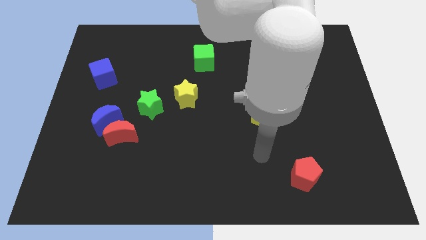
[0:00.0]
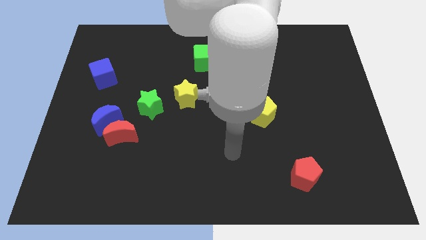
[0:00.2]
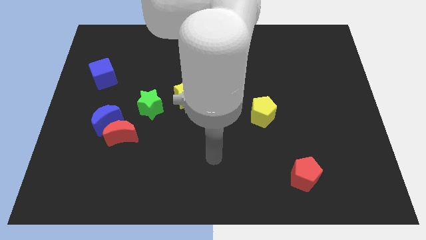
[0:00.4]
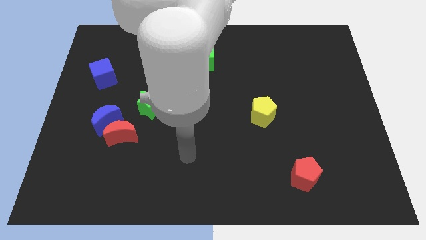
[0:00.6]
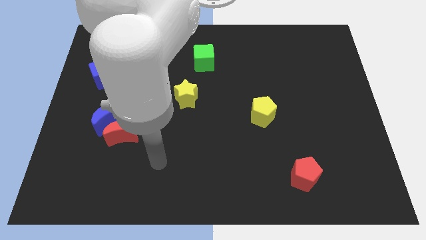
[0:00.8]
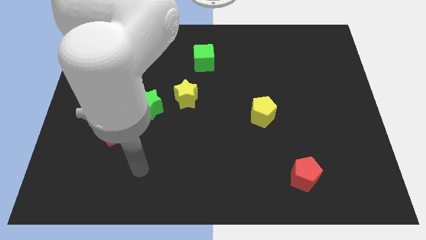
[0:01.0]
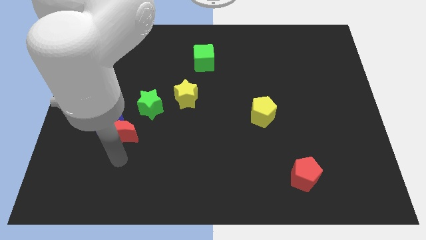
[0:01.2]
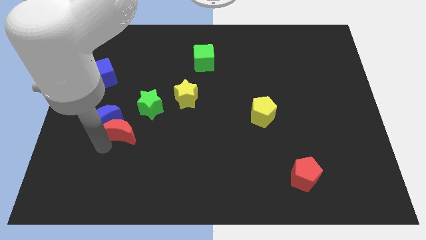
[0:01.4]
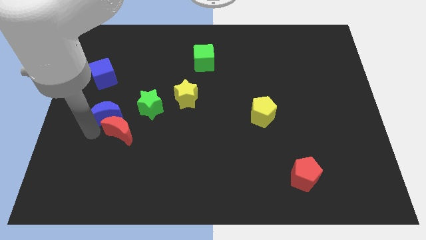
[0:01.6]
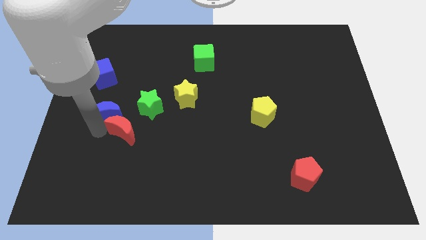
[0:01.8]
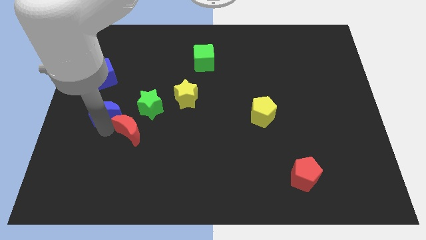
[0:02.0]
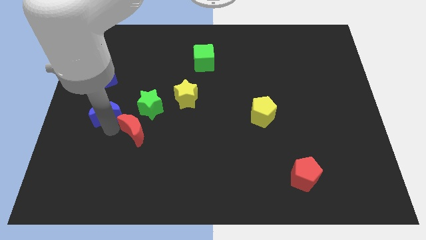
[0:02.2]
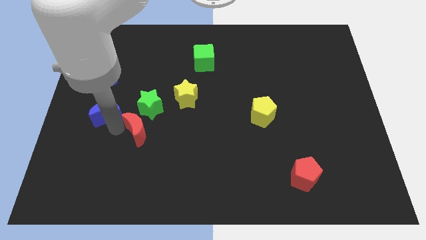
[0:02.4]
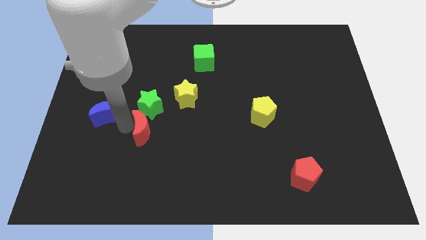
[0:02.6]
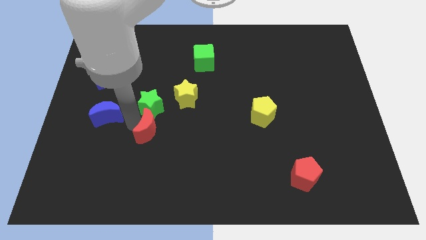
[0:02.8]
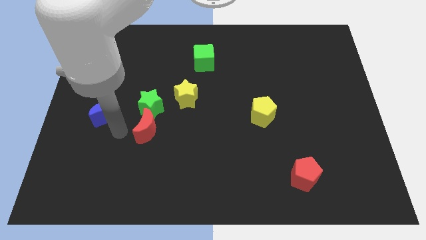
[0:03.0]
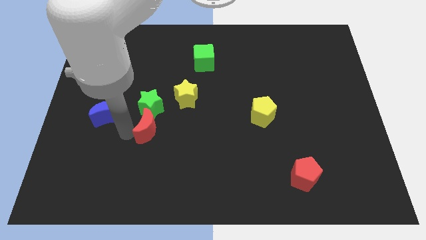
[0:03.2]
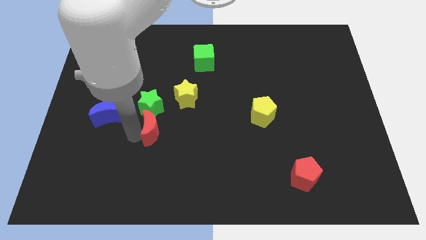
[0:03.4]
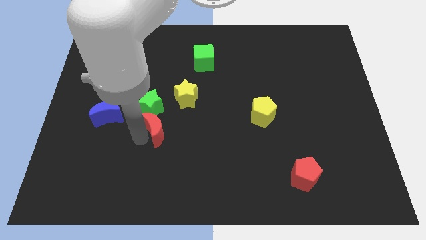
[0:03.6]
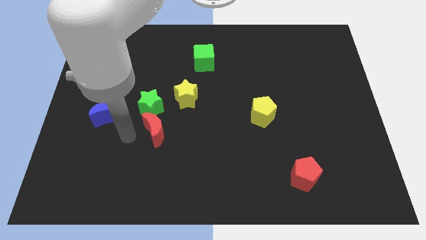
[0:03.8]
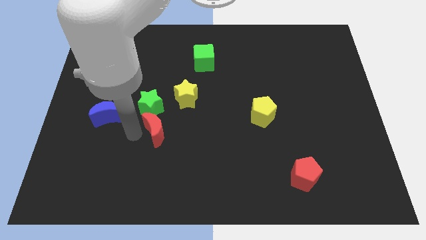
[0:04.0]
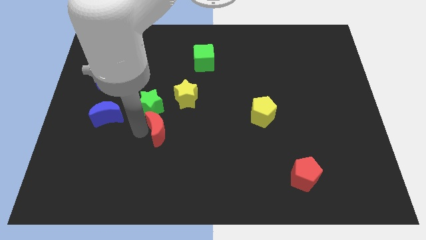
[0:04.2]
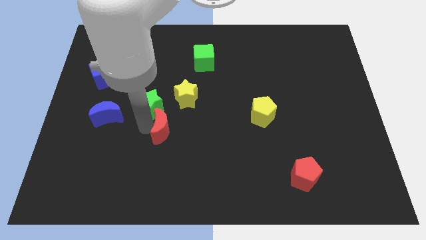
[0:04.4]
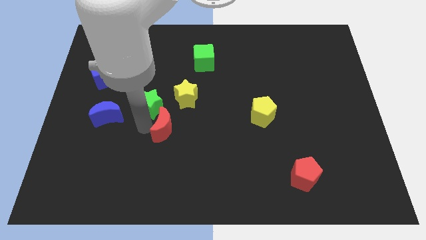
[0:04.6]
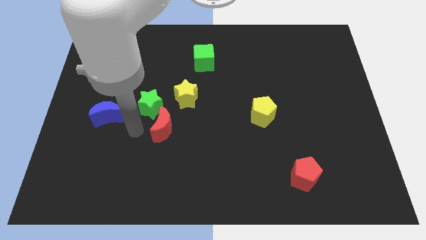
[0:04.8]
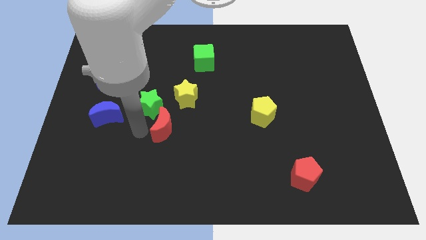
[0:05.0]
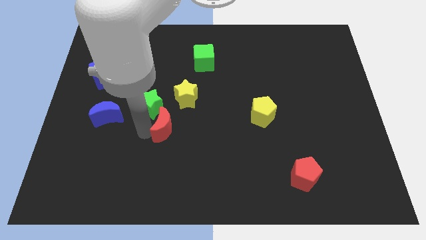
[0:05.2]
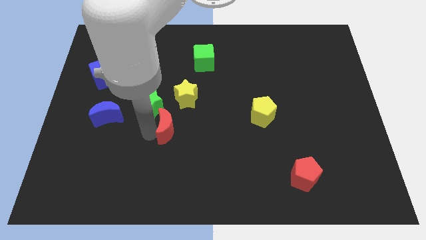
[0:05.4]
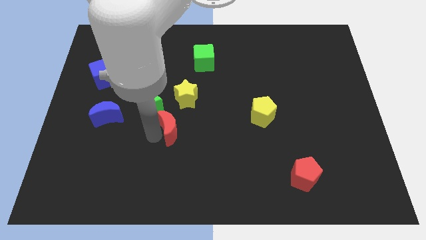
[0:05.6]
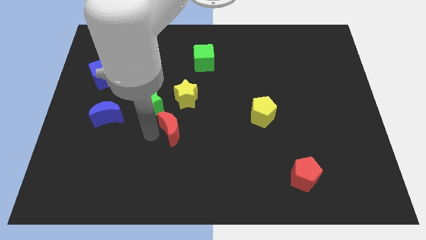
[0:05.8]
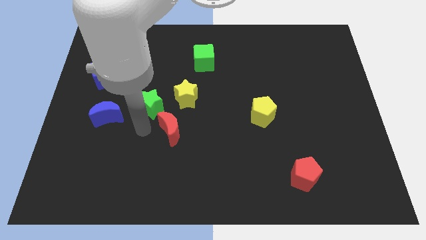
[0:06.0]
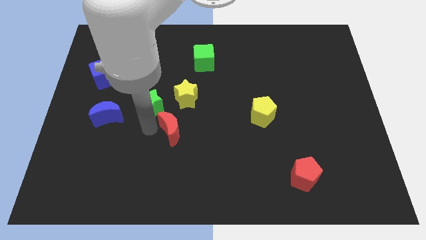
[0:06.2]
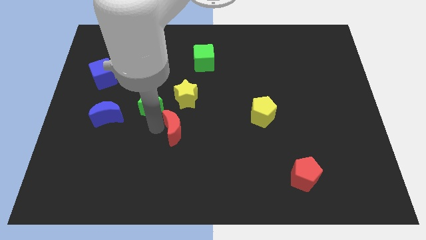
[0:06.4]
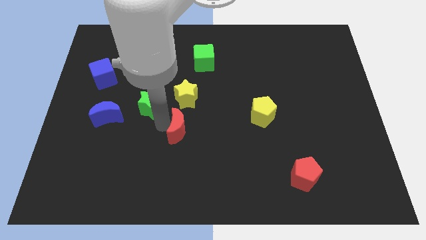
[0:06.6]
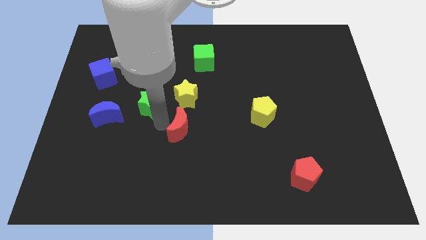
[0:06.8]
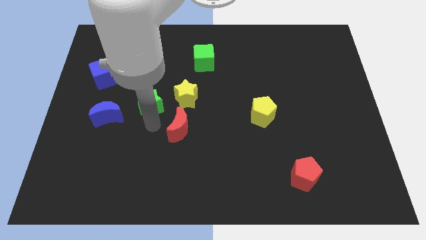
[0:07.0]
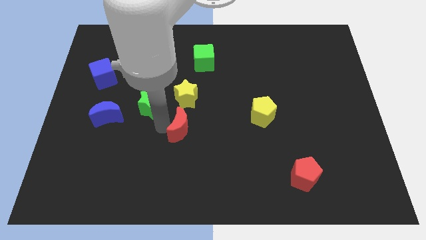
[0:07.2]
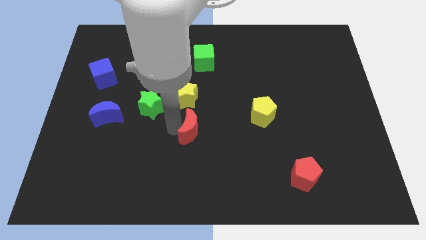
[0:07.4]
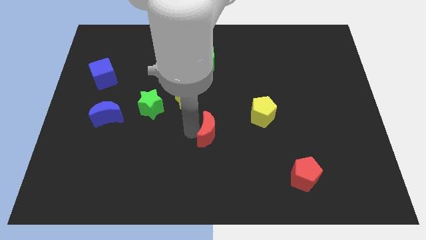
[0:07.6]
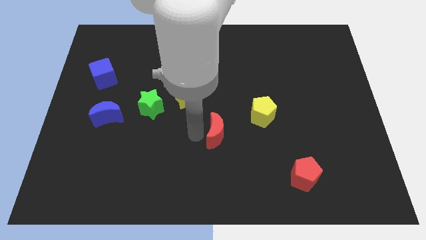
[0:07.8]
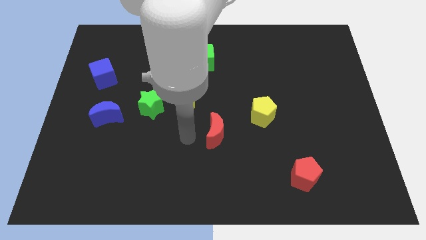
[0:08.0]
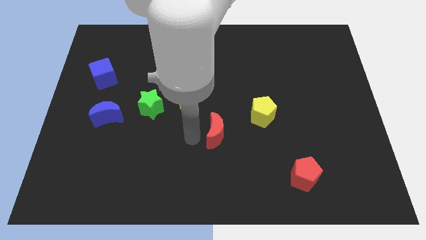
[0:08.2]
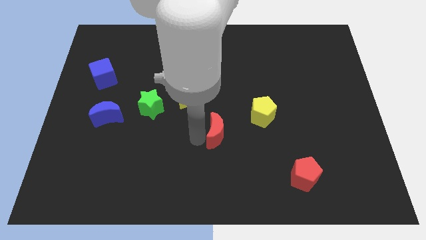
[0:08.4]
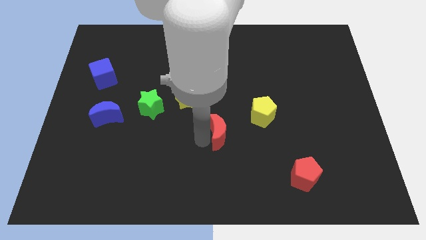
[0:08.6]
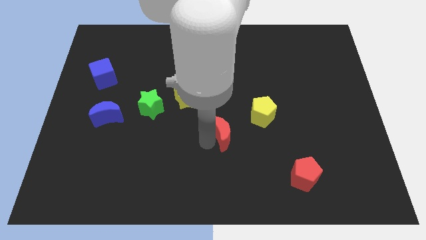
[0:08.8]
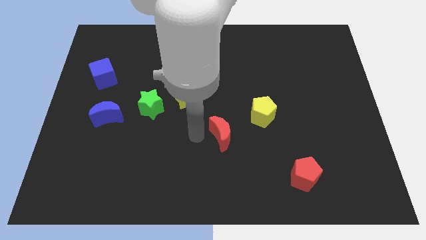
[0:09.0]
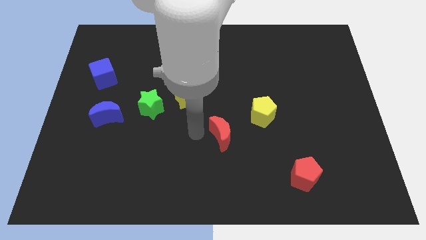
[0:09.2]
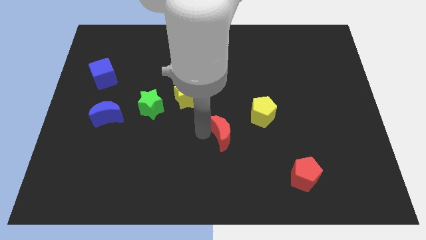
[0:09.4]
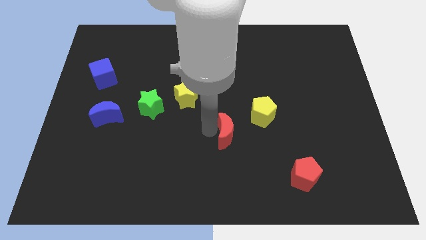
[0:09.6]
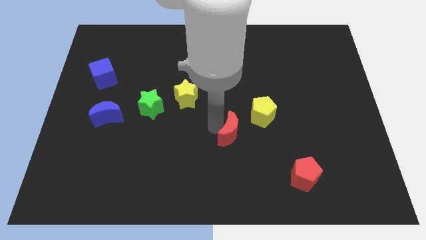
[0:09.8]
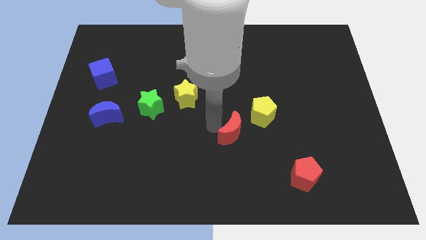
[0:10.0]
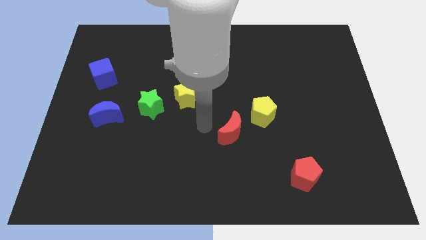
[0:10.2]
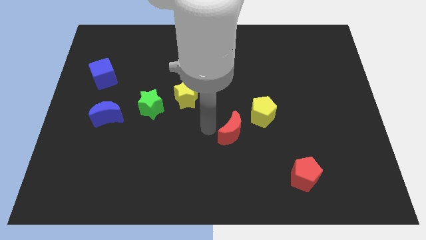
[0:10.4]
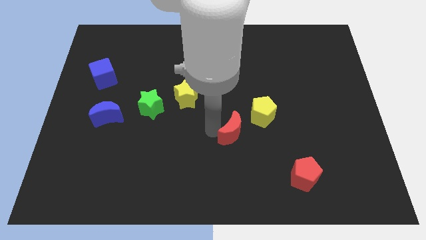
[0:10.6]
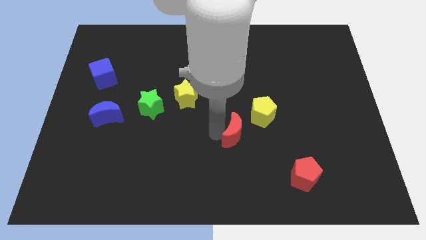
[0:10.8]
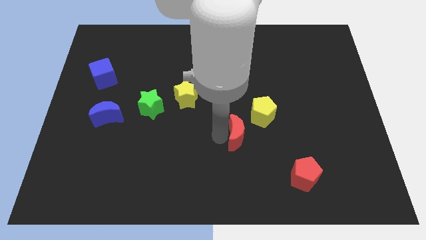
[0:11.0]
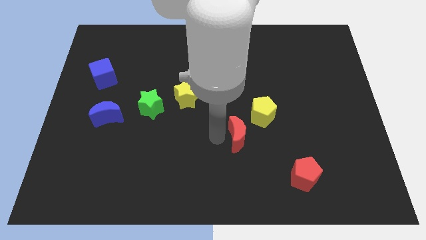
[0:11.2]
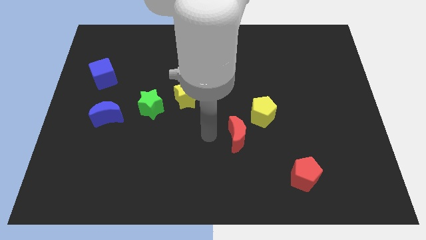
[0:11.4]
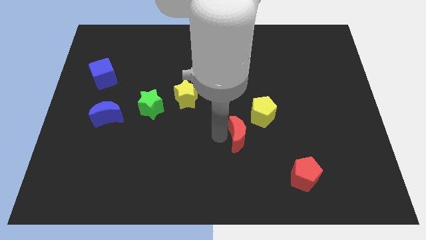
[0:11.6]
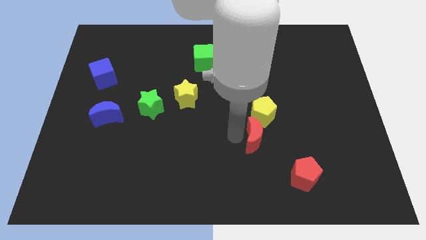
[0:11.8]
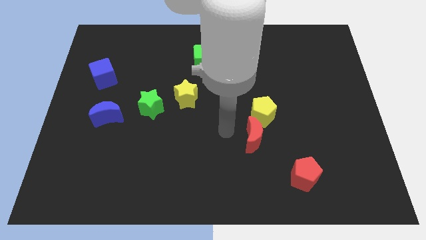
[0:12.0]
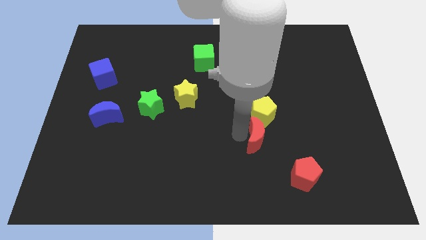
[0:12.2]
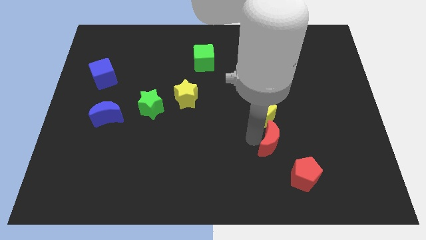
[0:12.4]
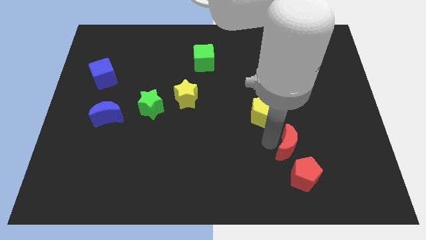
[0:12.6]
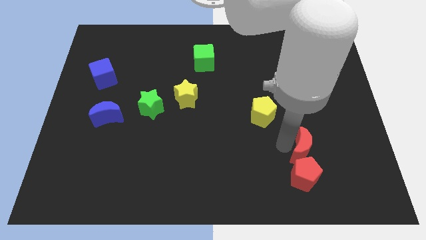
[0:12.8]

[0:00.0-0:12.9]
put the red moon to the top right side of the red pentagon

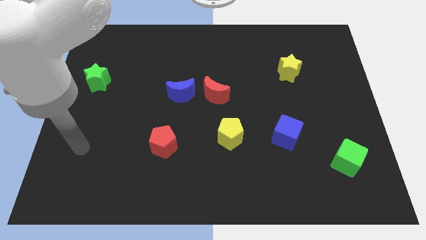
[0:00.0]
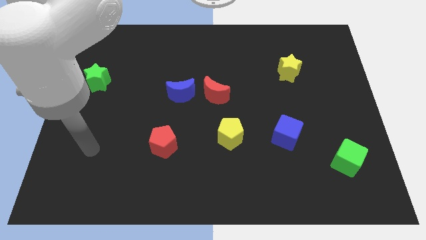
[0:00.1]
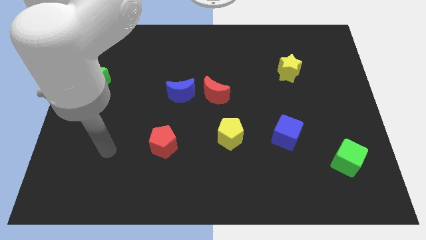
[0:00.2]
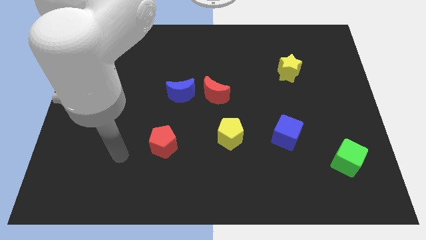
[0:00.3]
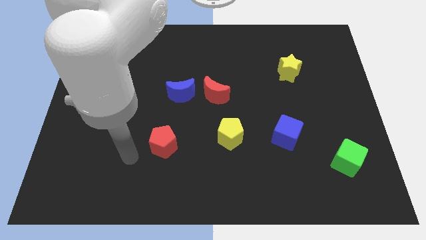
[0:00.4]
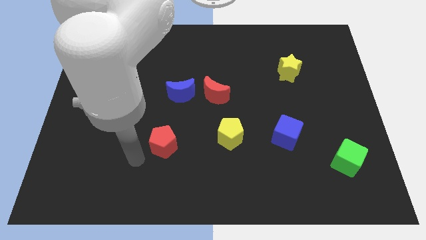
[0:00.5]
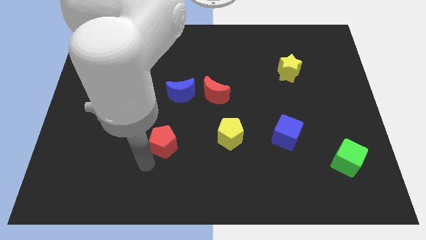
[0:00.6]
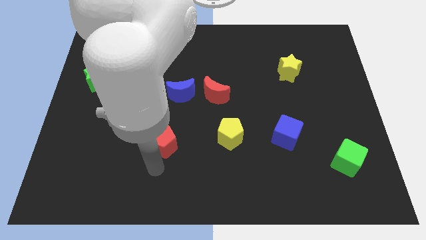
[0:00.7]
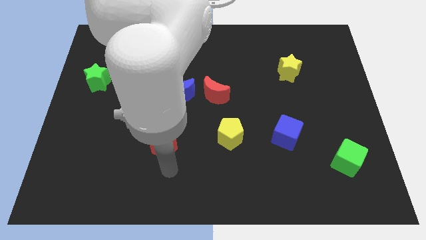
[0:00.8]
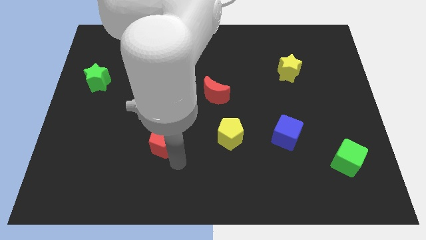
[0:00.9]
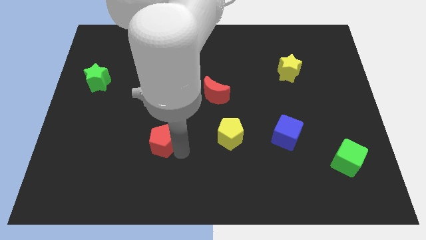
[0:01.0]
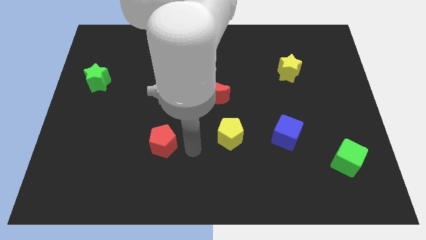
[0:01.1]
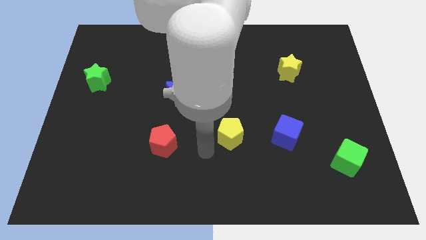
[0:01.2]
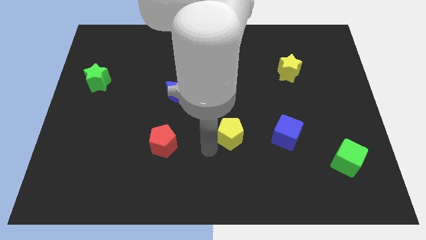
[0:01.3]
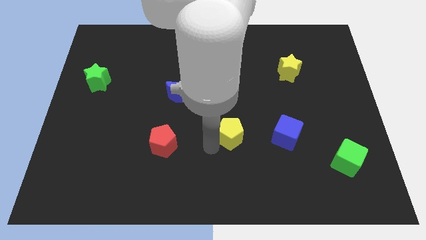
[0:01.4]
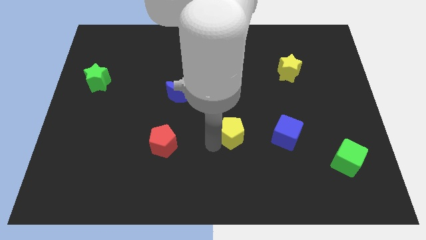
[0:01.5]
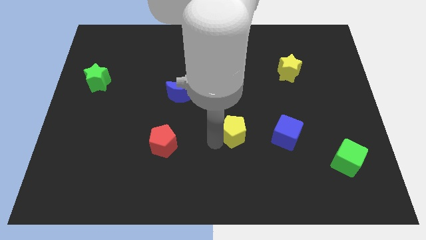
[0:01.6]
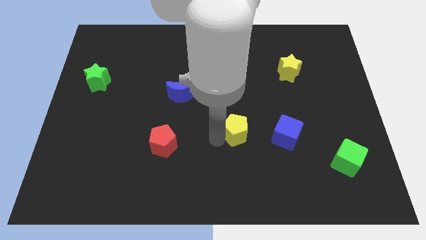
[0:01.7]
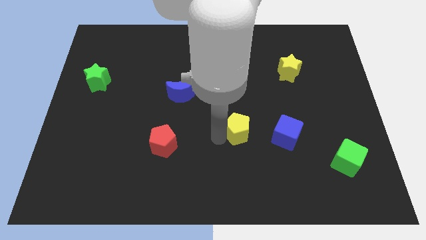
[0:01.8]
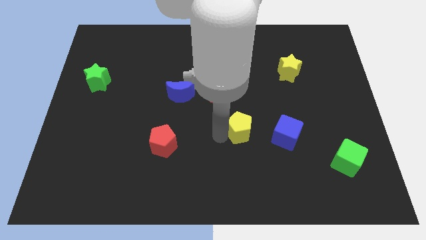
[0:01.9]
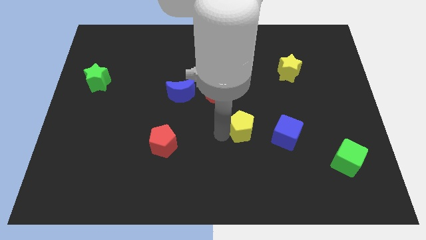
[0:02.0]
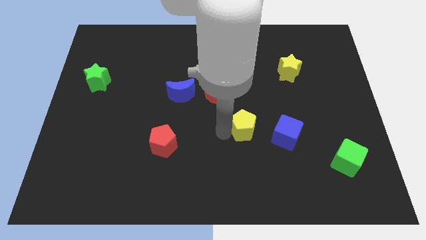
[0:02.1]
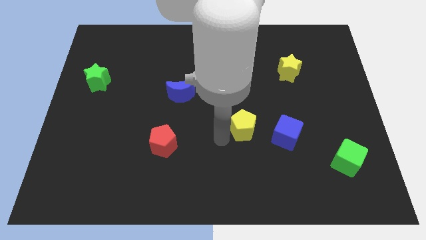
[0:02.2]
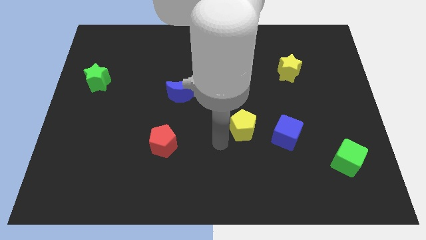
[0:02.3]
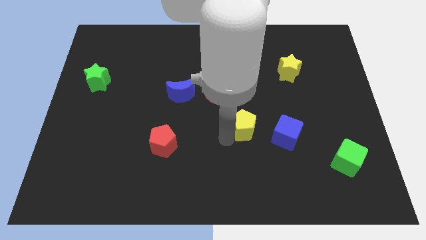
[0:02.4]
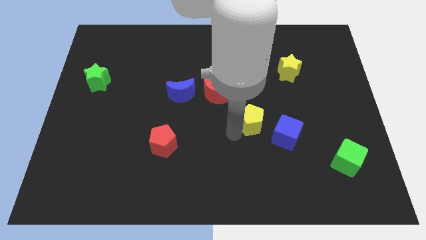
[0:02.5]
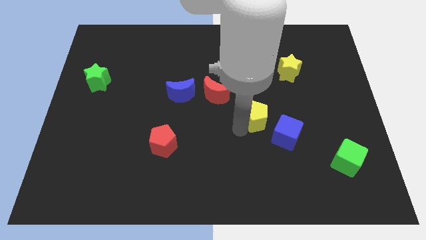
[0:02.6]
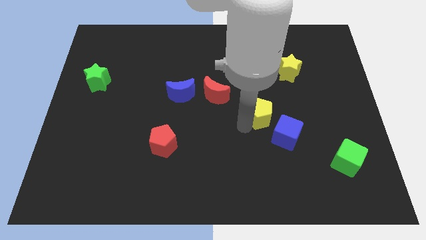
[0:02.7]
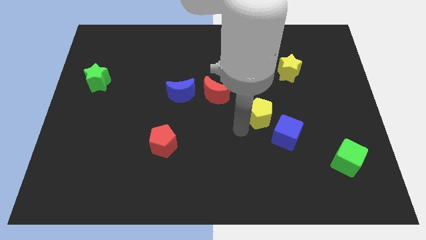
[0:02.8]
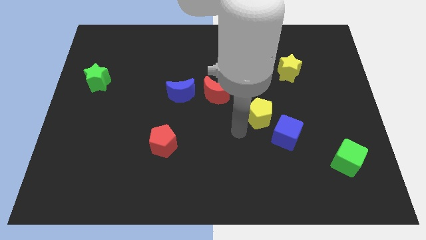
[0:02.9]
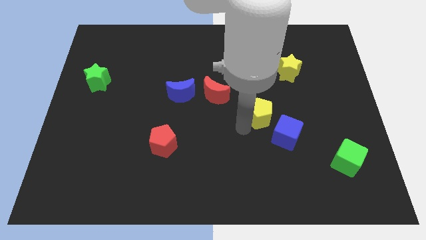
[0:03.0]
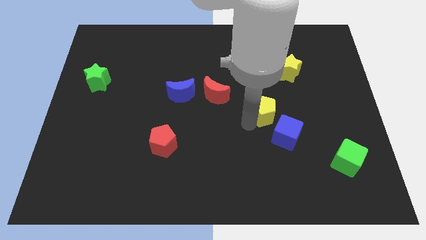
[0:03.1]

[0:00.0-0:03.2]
put the yellow pentagon above the blue cube
